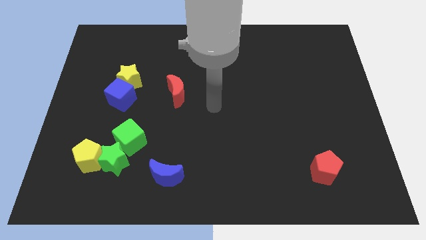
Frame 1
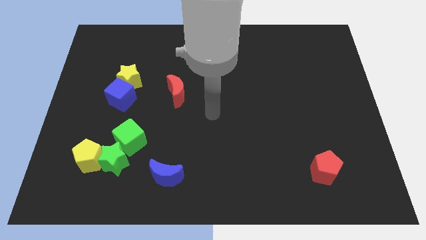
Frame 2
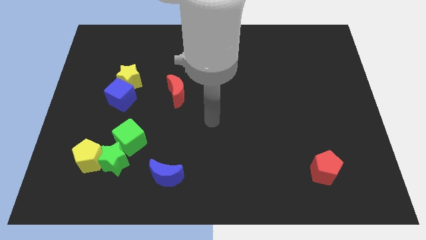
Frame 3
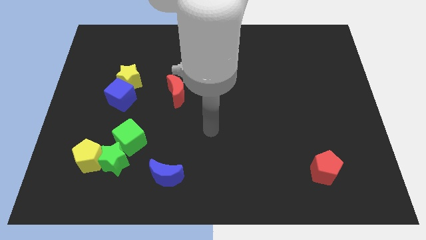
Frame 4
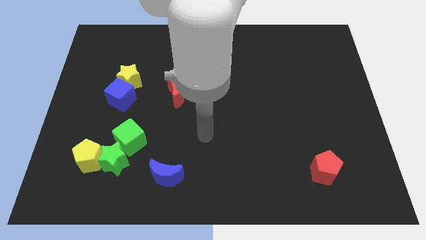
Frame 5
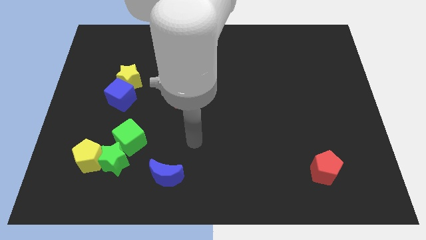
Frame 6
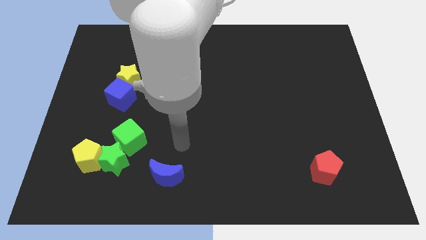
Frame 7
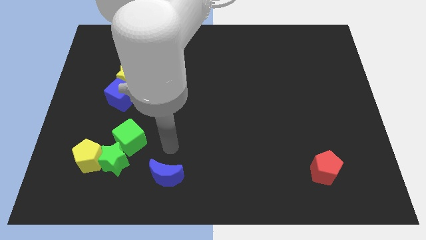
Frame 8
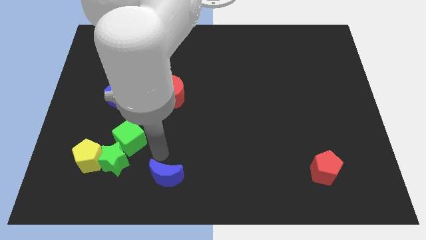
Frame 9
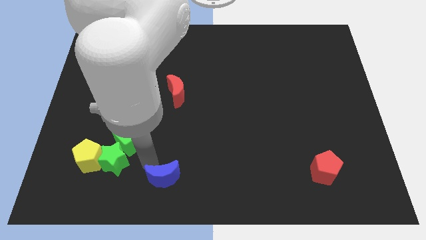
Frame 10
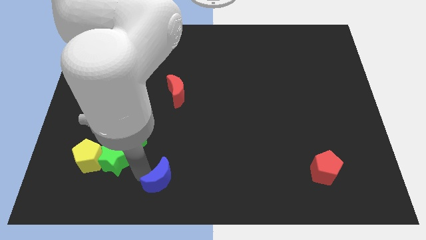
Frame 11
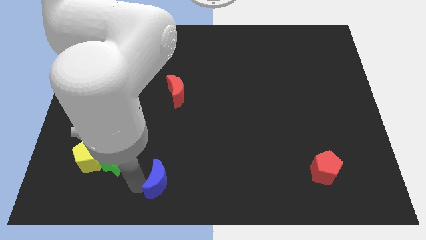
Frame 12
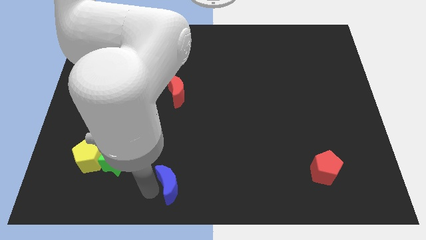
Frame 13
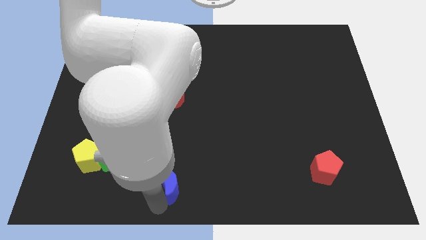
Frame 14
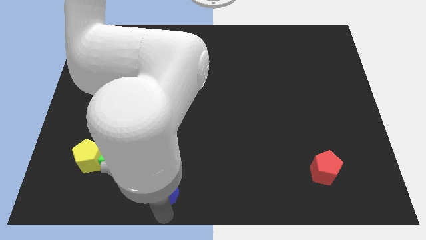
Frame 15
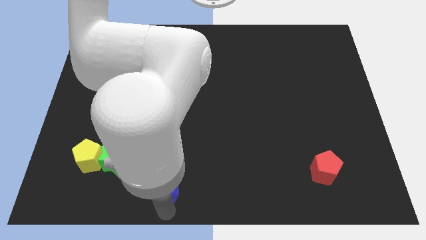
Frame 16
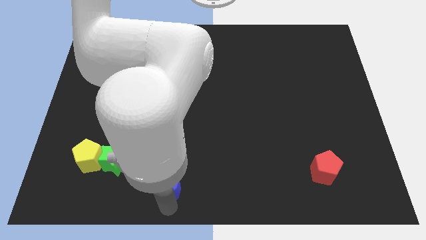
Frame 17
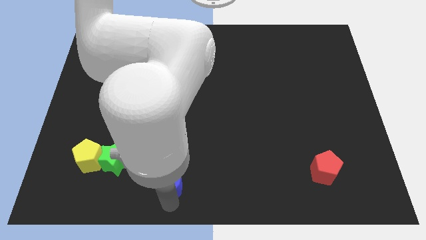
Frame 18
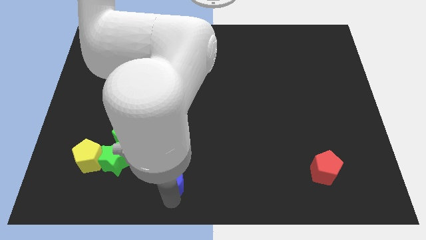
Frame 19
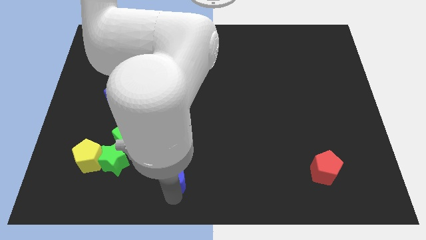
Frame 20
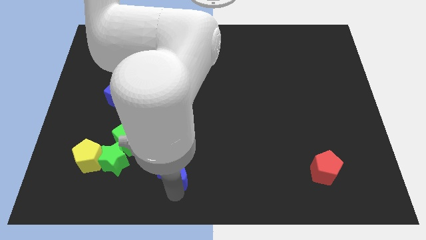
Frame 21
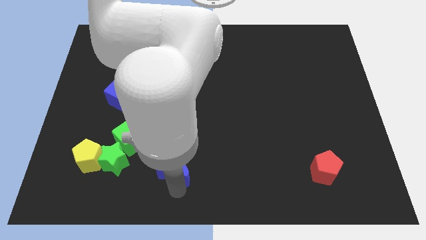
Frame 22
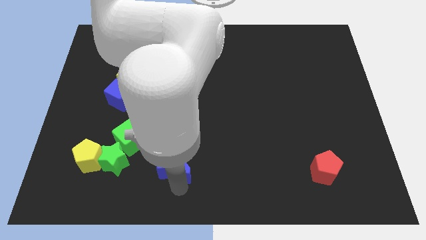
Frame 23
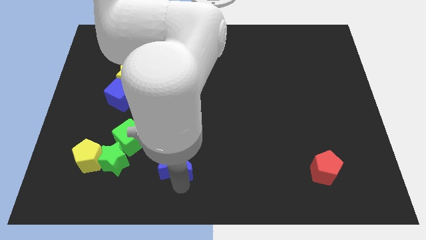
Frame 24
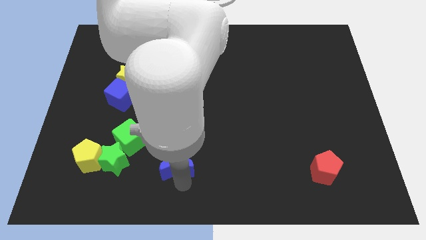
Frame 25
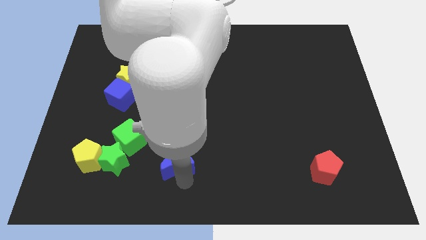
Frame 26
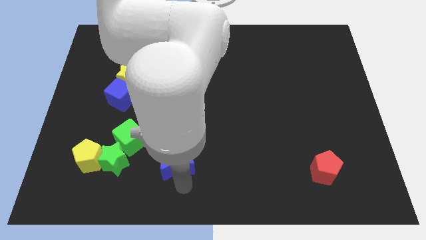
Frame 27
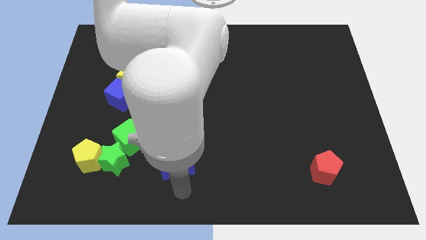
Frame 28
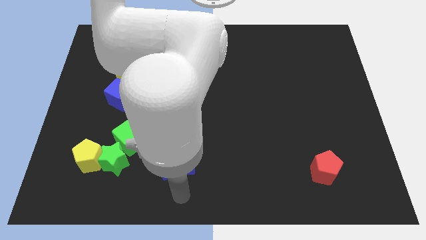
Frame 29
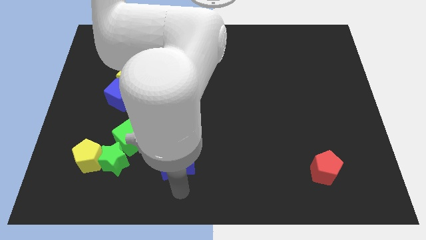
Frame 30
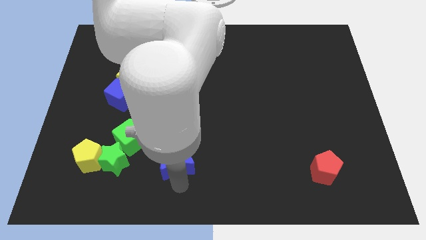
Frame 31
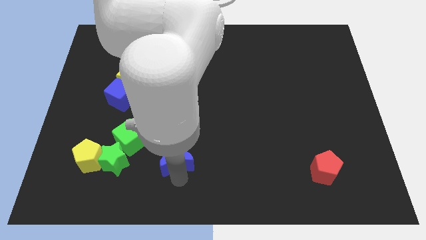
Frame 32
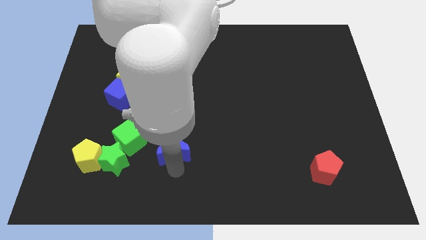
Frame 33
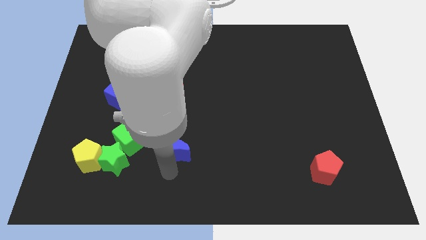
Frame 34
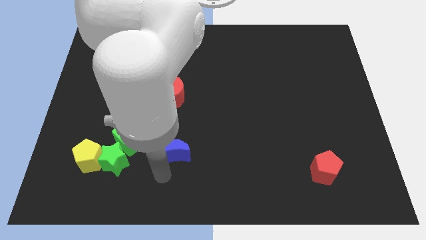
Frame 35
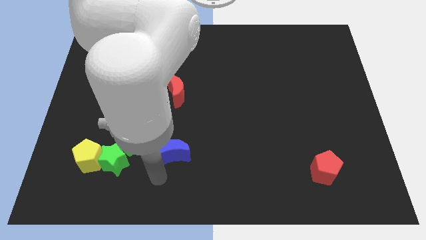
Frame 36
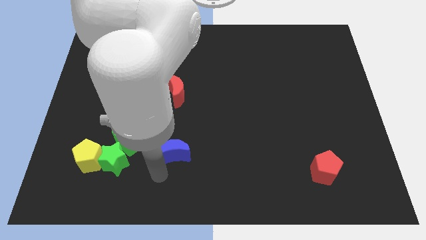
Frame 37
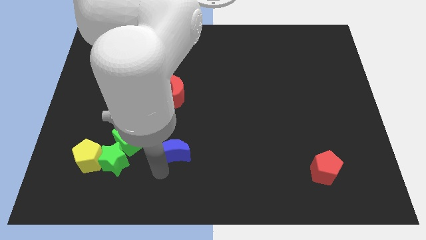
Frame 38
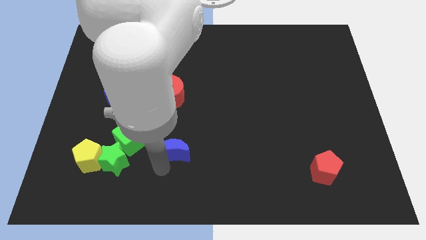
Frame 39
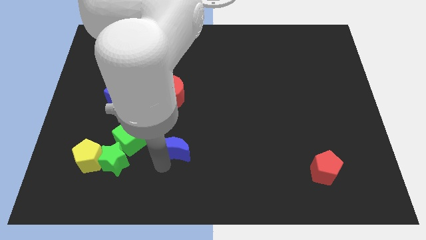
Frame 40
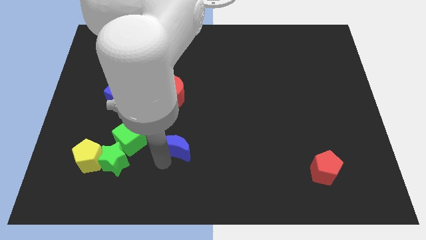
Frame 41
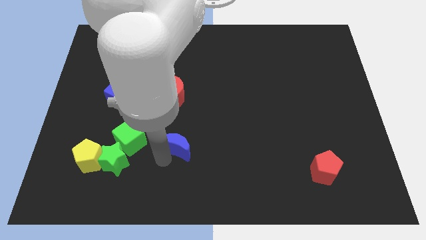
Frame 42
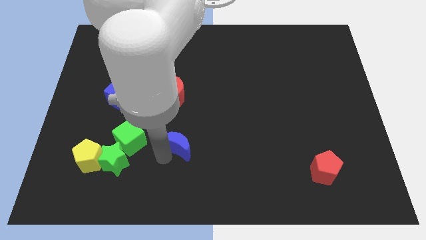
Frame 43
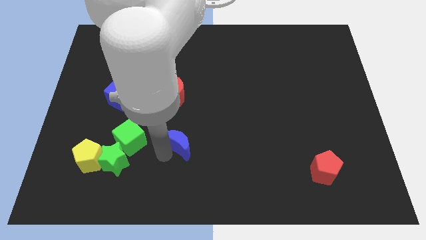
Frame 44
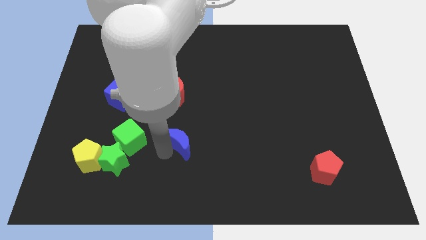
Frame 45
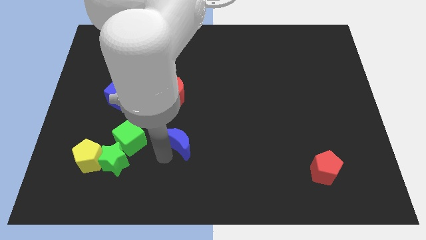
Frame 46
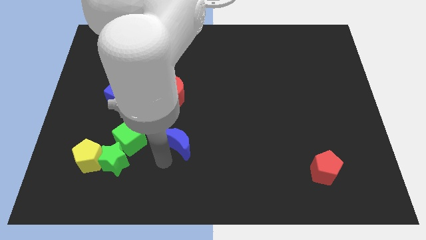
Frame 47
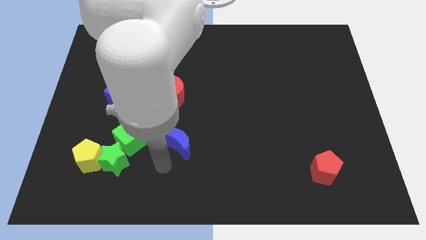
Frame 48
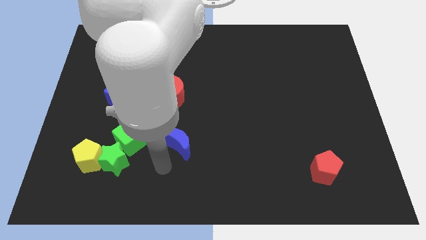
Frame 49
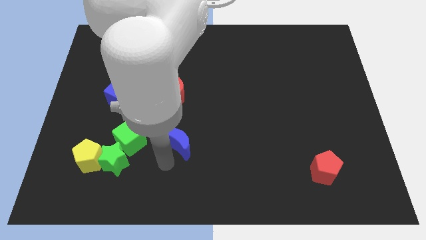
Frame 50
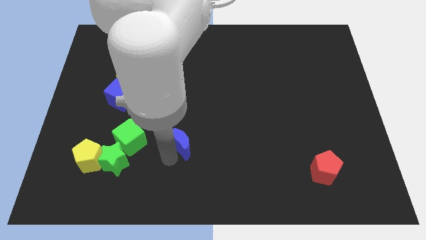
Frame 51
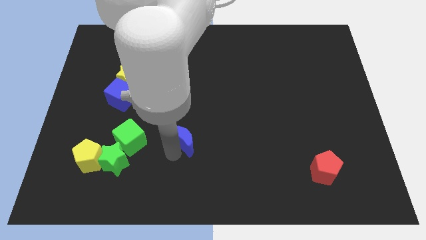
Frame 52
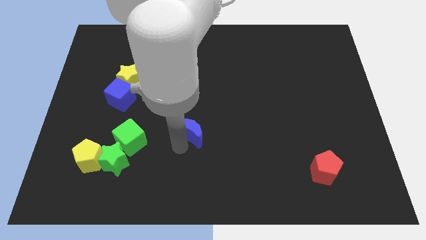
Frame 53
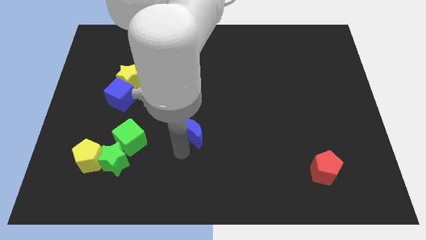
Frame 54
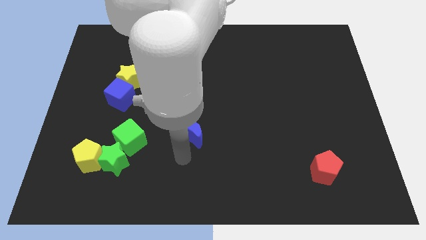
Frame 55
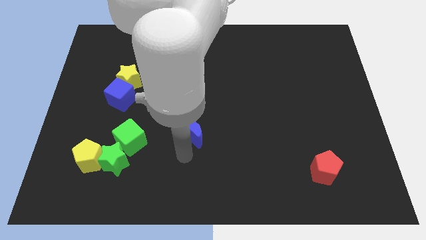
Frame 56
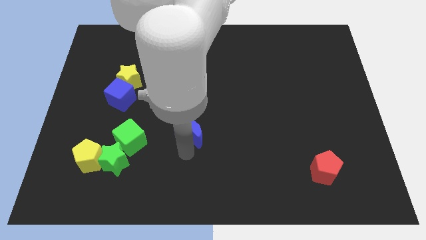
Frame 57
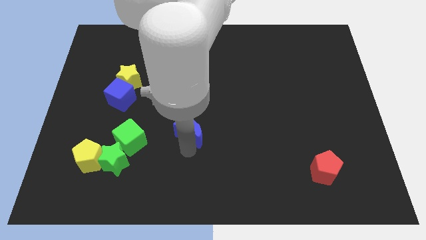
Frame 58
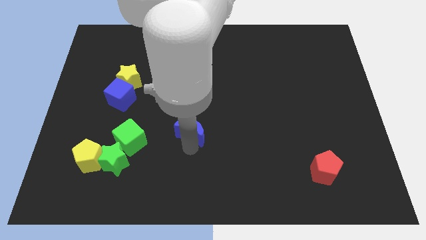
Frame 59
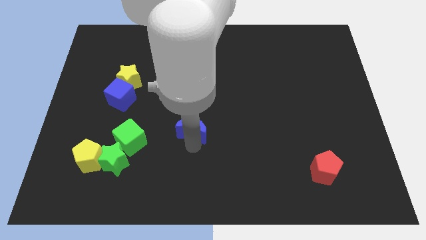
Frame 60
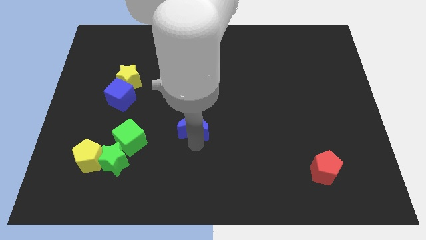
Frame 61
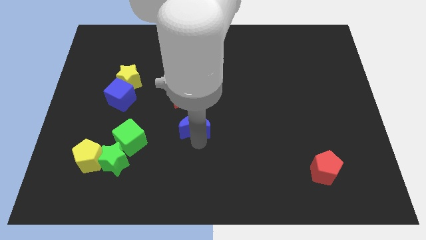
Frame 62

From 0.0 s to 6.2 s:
move the blue moon diagonally down and to the right of the red moon
